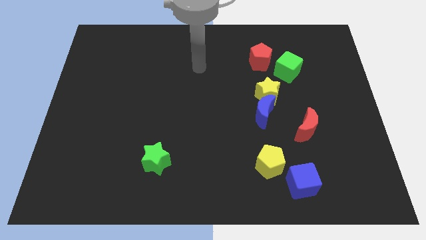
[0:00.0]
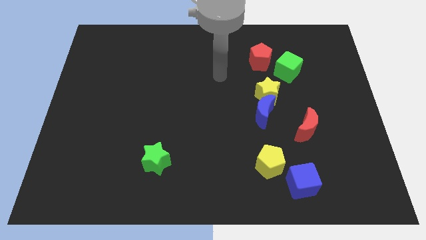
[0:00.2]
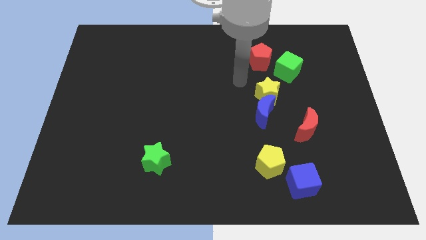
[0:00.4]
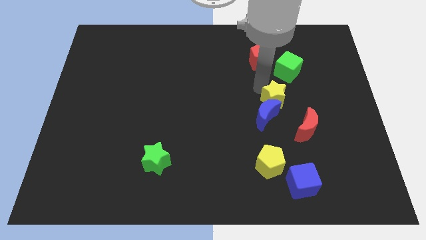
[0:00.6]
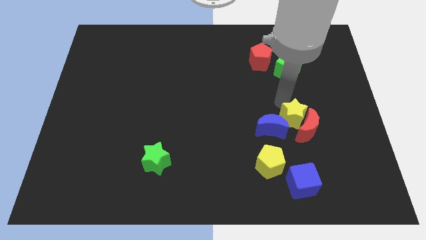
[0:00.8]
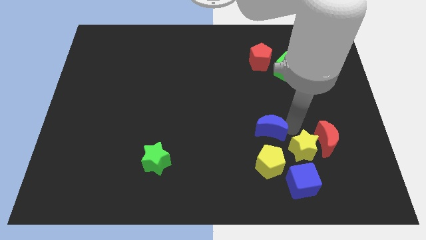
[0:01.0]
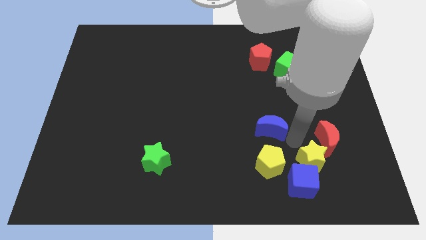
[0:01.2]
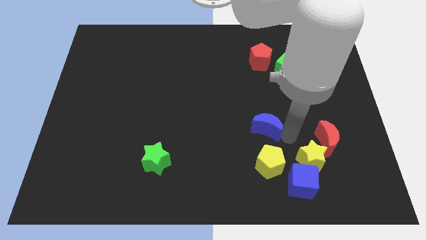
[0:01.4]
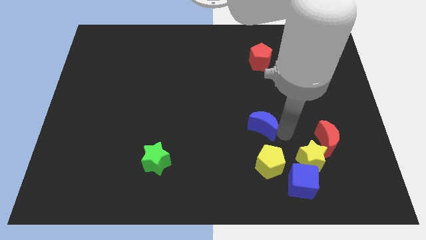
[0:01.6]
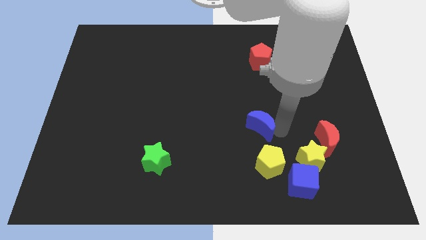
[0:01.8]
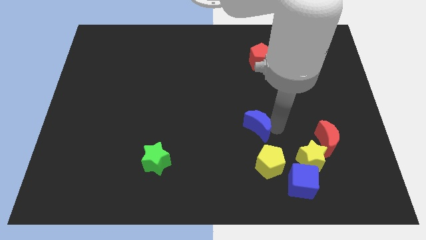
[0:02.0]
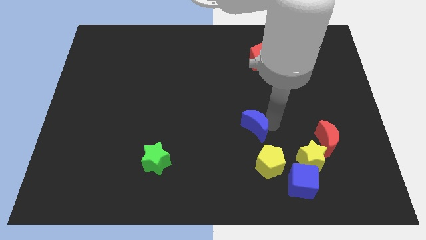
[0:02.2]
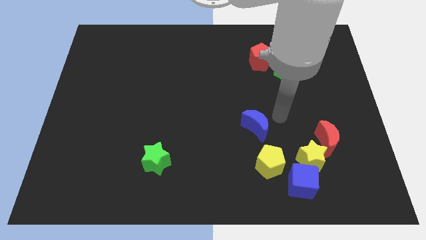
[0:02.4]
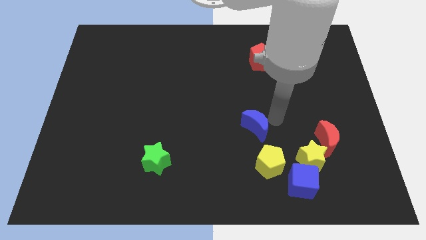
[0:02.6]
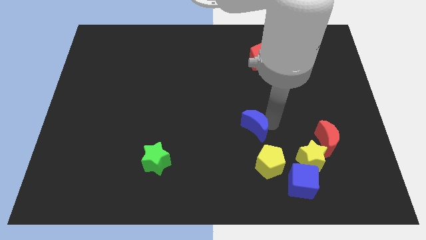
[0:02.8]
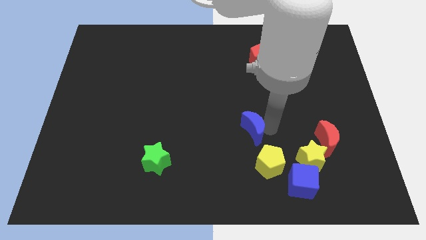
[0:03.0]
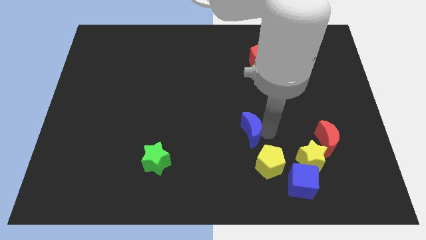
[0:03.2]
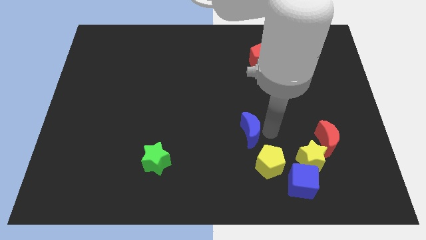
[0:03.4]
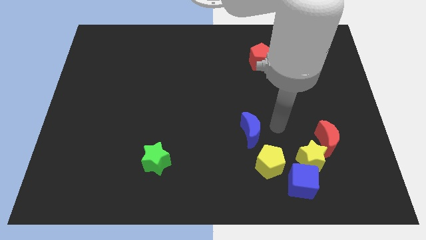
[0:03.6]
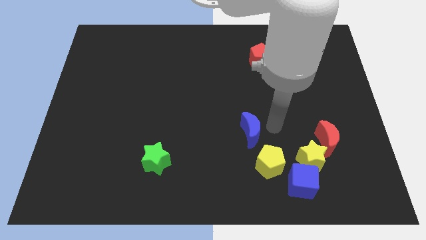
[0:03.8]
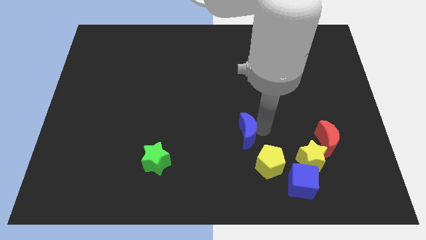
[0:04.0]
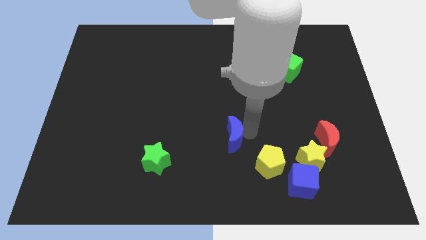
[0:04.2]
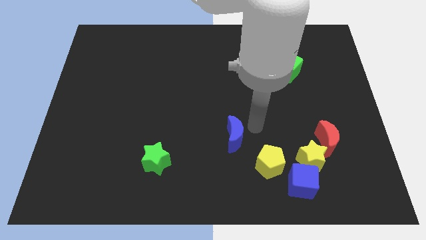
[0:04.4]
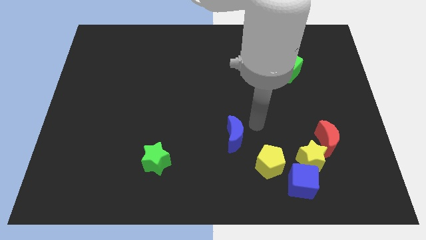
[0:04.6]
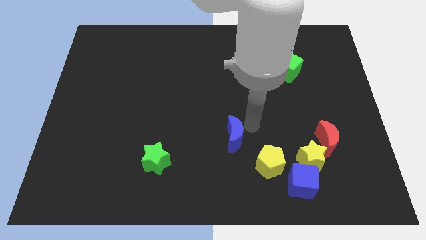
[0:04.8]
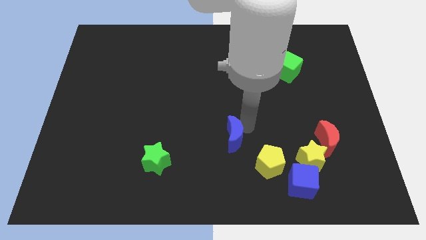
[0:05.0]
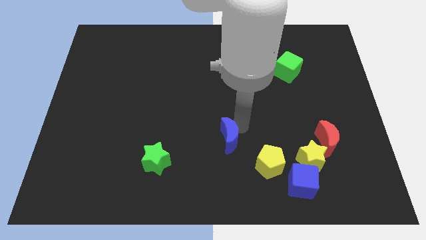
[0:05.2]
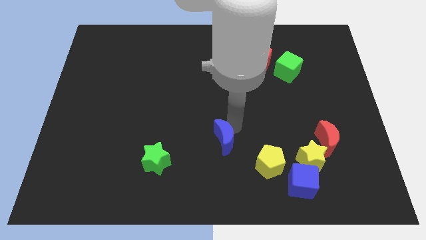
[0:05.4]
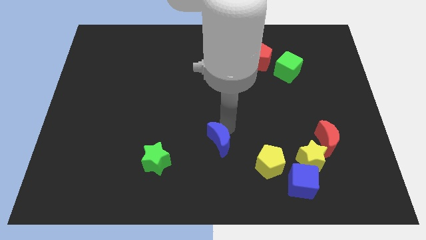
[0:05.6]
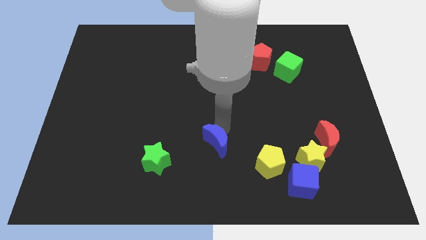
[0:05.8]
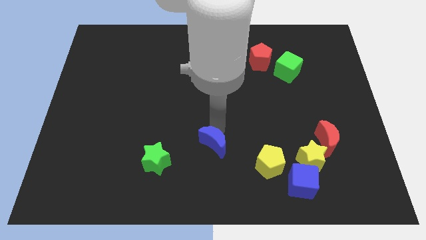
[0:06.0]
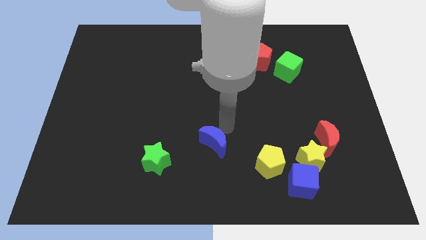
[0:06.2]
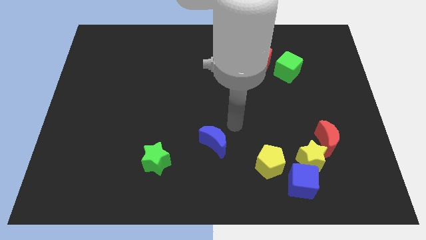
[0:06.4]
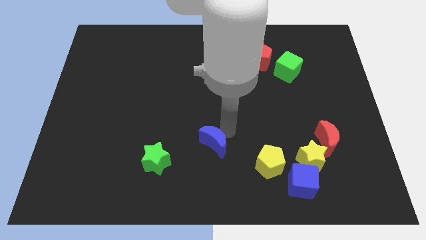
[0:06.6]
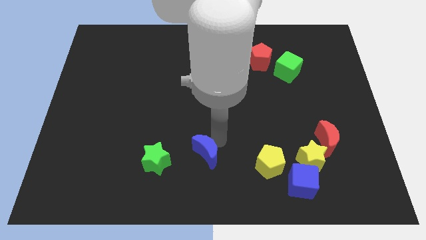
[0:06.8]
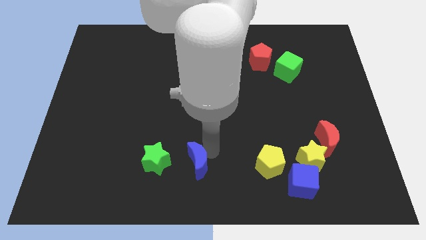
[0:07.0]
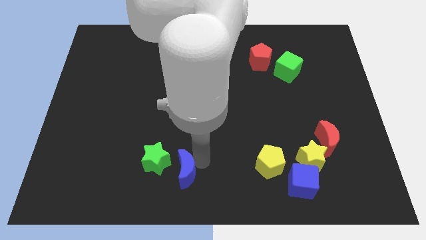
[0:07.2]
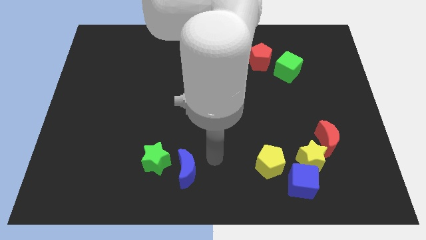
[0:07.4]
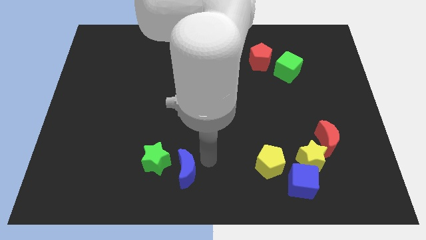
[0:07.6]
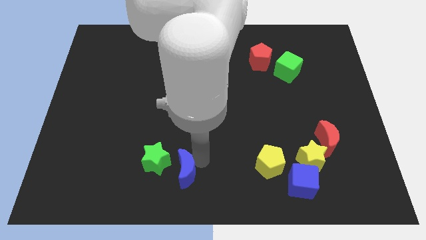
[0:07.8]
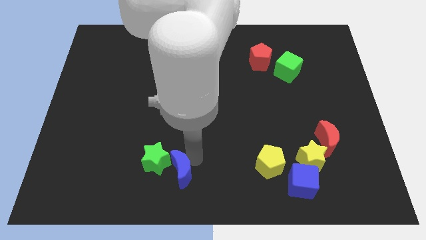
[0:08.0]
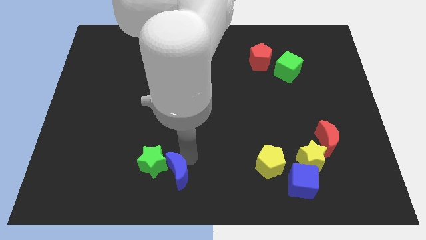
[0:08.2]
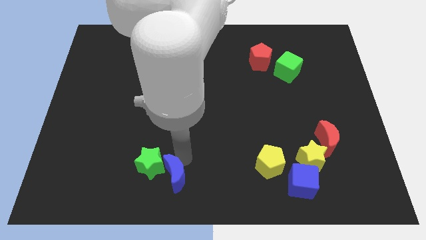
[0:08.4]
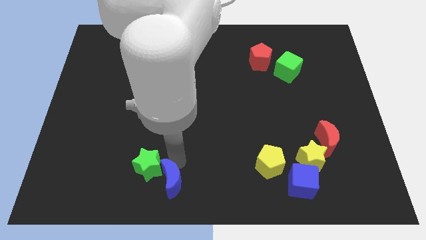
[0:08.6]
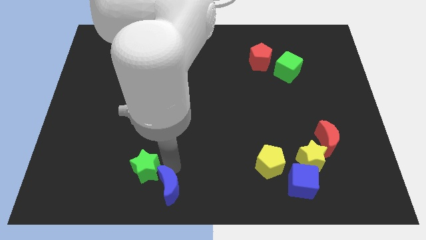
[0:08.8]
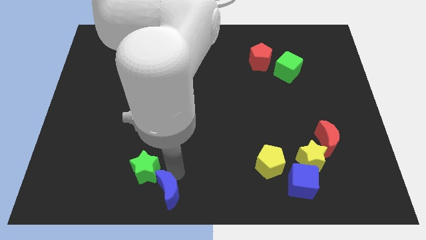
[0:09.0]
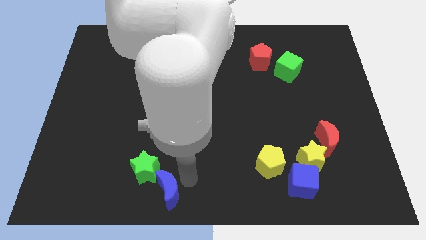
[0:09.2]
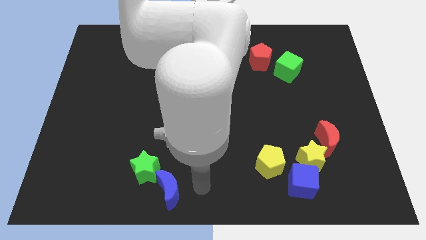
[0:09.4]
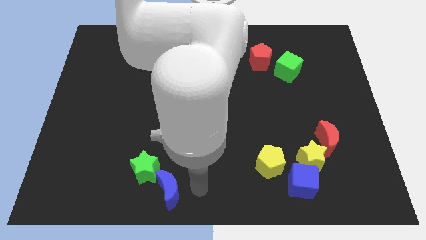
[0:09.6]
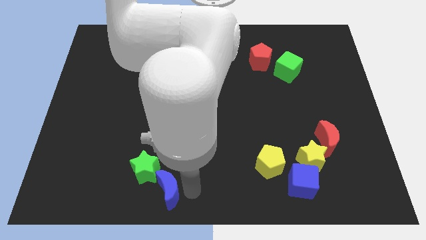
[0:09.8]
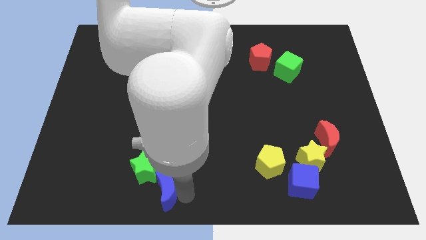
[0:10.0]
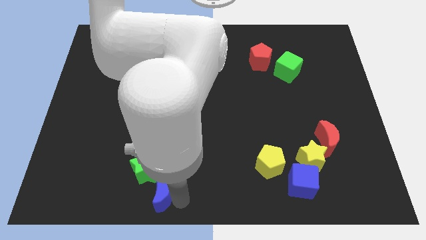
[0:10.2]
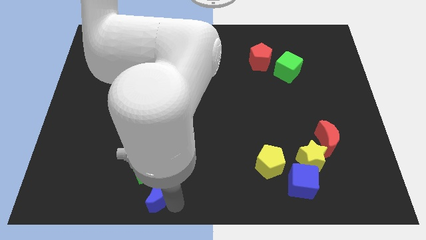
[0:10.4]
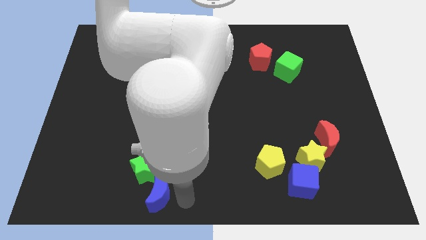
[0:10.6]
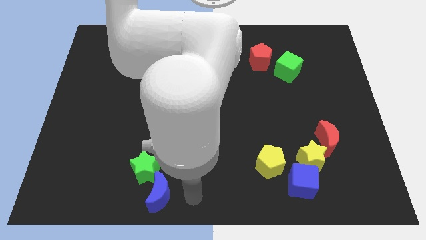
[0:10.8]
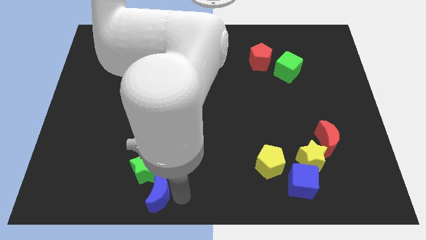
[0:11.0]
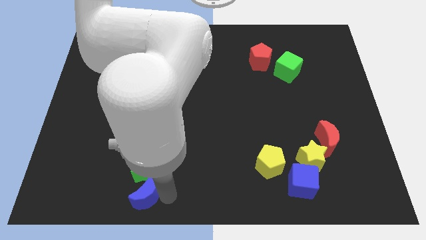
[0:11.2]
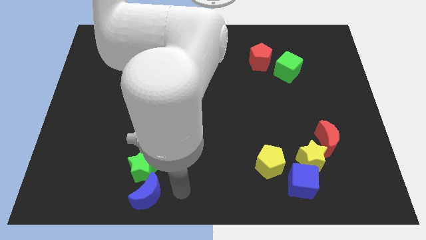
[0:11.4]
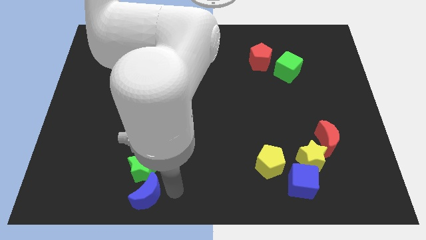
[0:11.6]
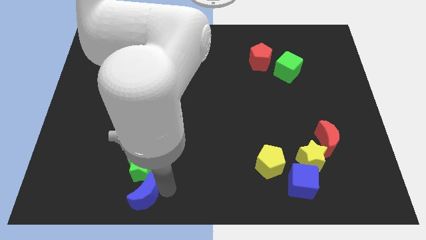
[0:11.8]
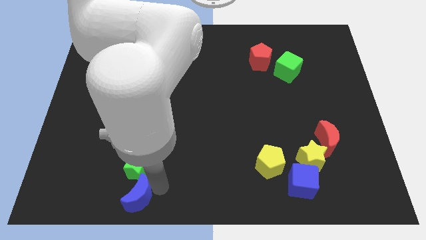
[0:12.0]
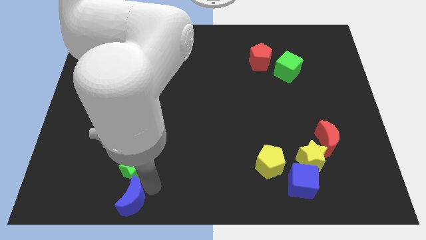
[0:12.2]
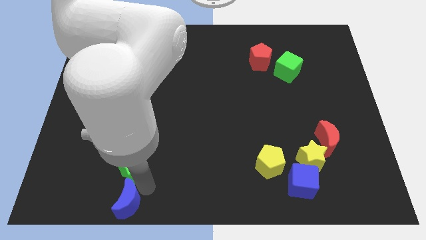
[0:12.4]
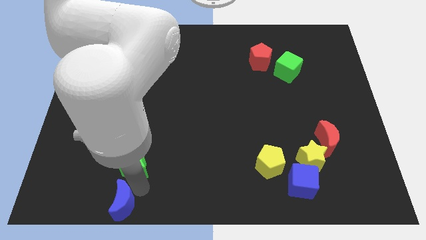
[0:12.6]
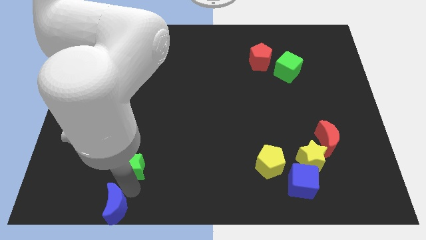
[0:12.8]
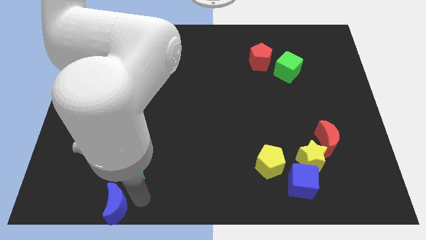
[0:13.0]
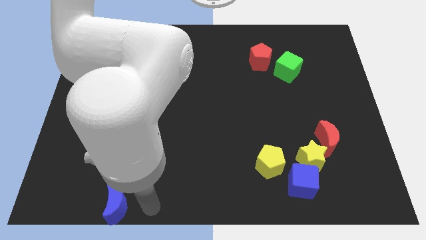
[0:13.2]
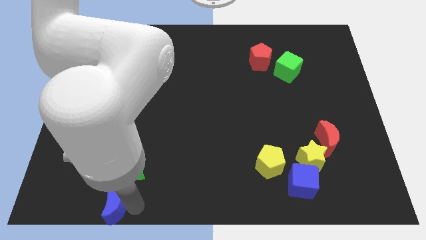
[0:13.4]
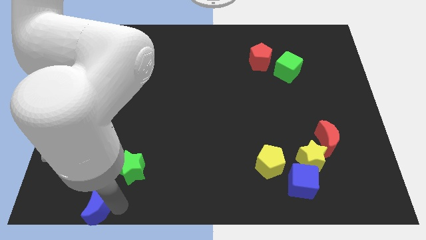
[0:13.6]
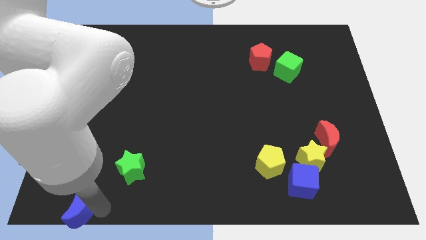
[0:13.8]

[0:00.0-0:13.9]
slide the blue moon to the bottom left corner
